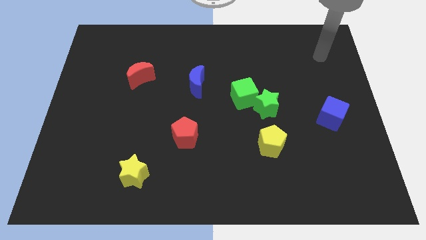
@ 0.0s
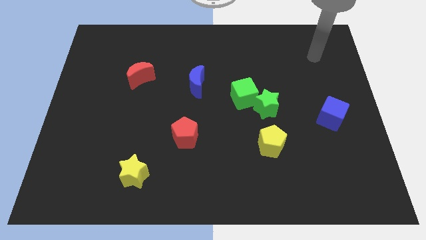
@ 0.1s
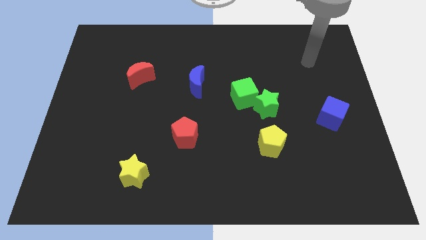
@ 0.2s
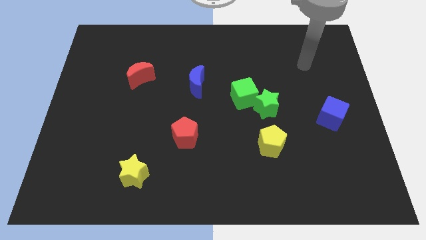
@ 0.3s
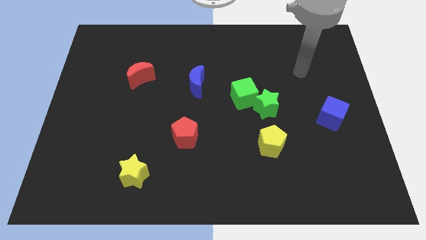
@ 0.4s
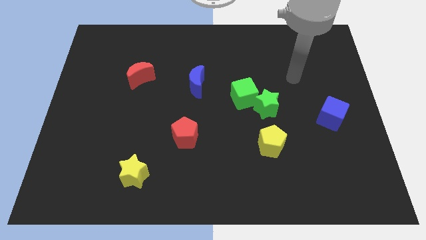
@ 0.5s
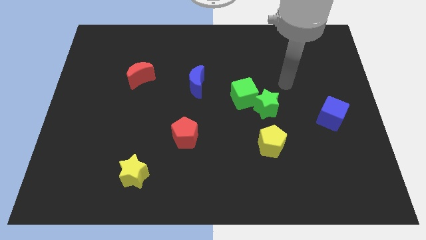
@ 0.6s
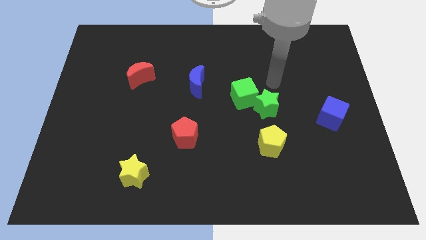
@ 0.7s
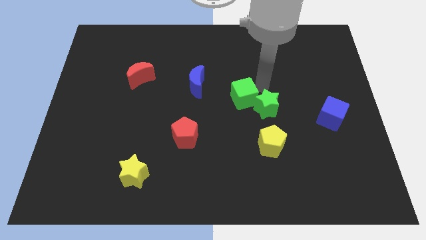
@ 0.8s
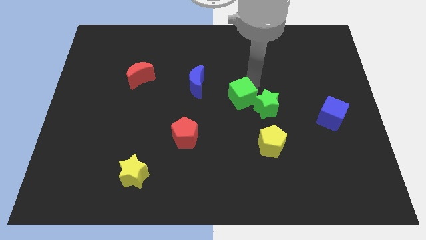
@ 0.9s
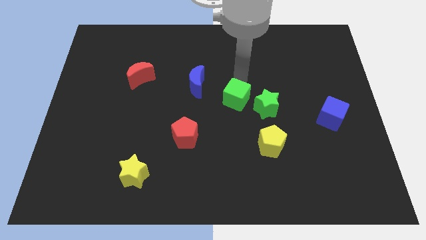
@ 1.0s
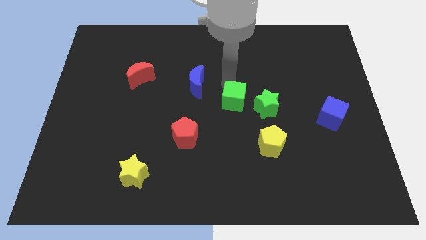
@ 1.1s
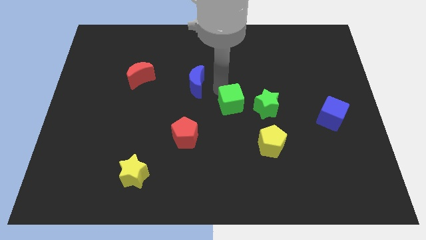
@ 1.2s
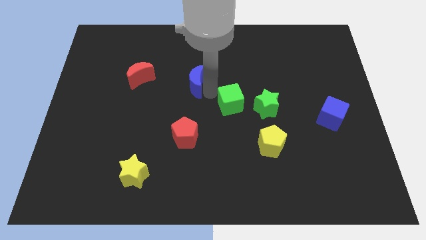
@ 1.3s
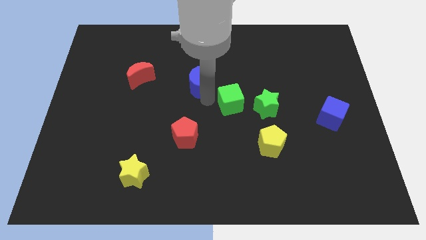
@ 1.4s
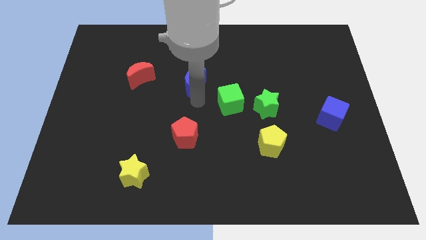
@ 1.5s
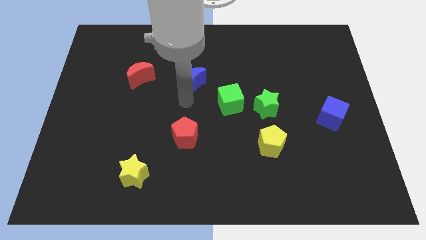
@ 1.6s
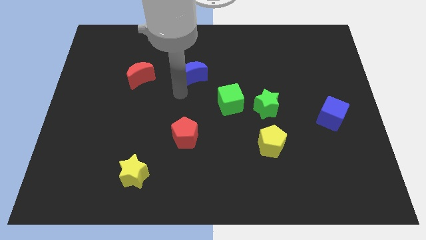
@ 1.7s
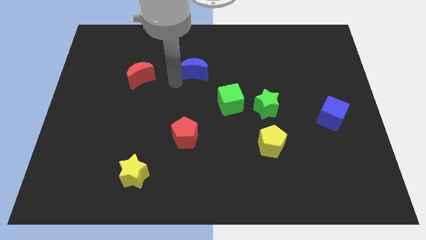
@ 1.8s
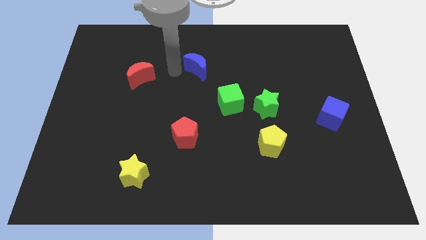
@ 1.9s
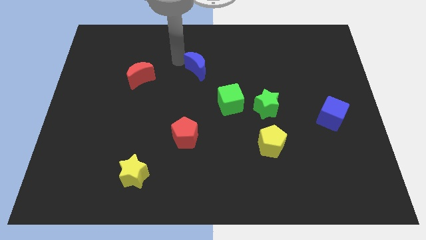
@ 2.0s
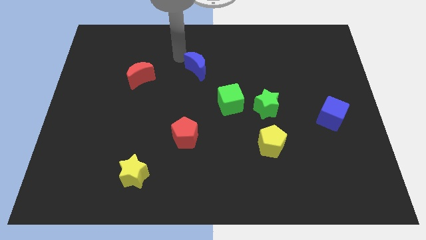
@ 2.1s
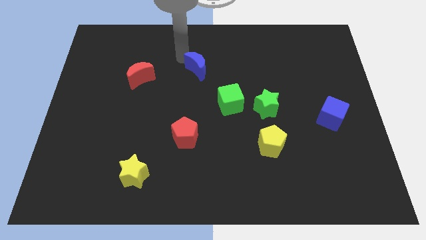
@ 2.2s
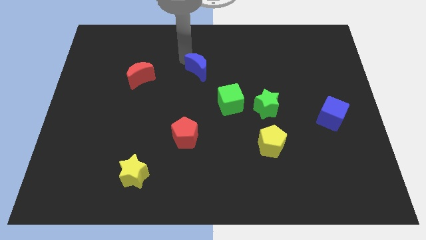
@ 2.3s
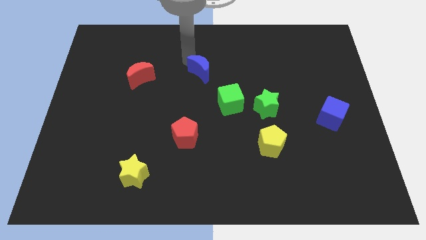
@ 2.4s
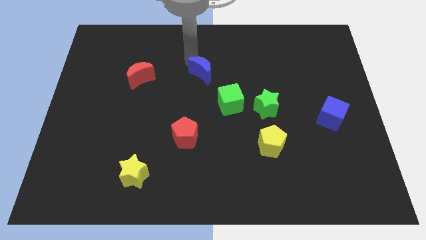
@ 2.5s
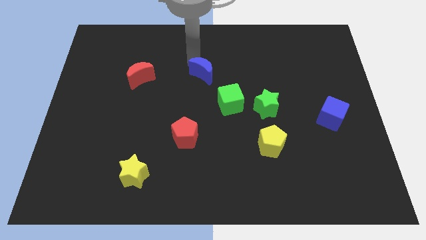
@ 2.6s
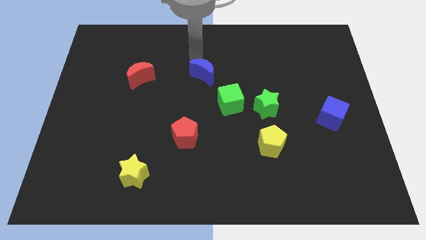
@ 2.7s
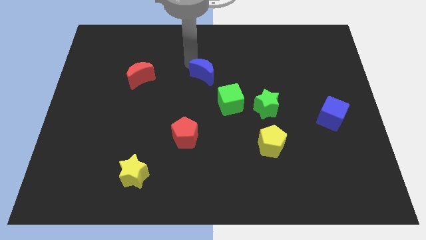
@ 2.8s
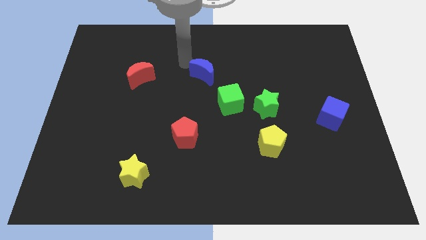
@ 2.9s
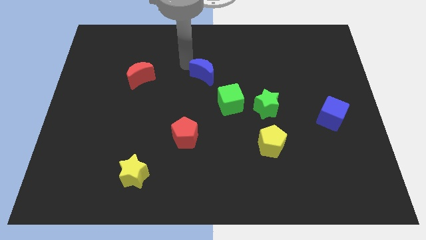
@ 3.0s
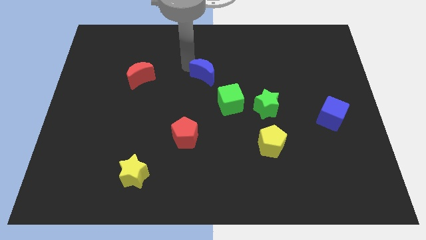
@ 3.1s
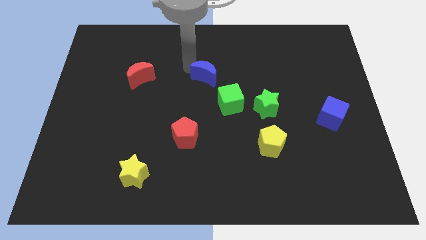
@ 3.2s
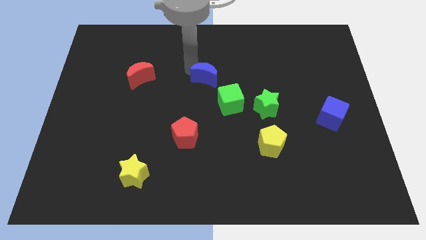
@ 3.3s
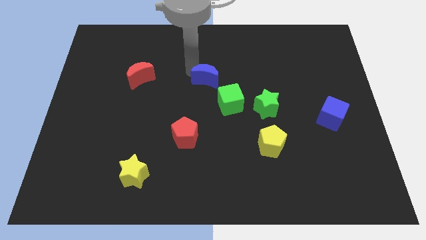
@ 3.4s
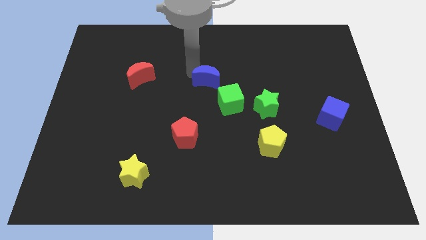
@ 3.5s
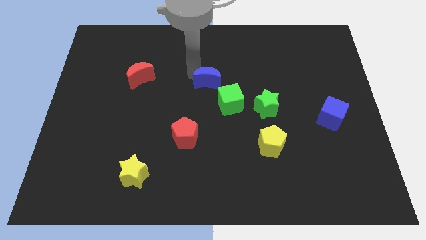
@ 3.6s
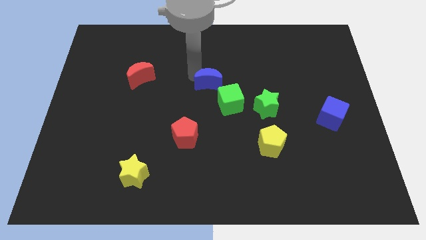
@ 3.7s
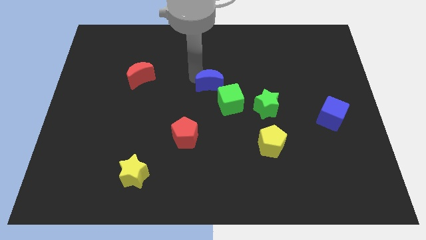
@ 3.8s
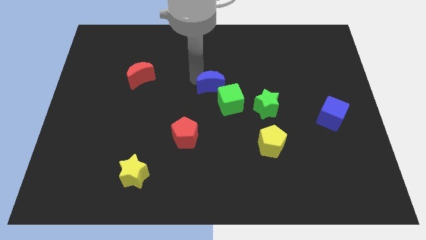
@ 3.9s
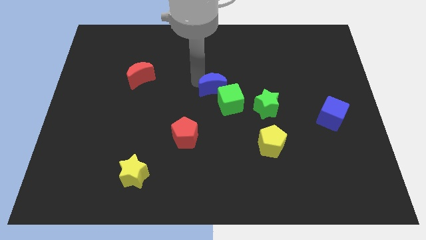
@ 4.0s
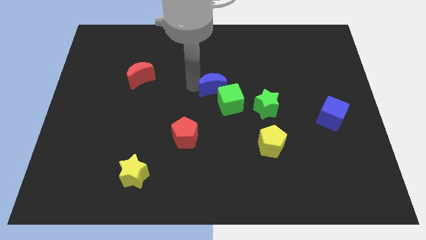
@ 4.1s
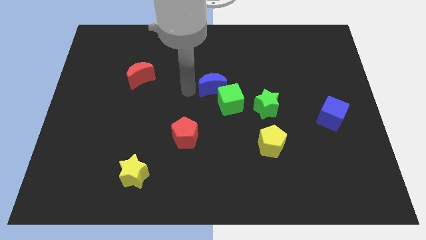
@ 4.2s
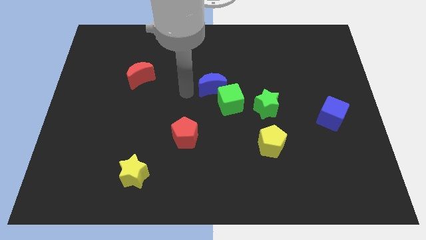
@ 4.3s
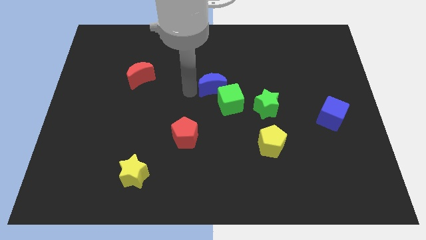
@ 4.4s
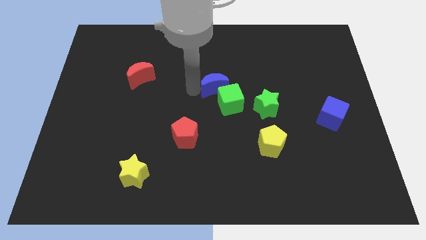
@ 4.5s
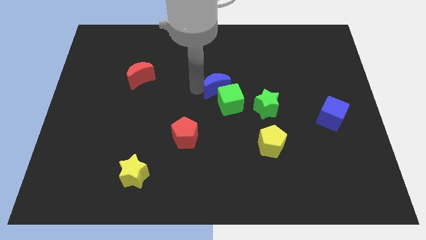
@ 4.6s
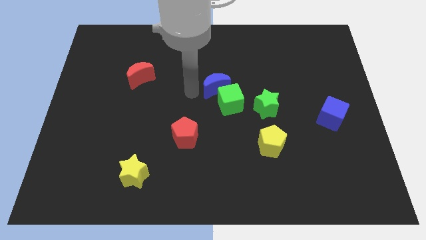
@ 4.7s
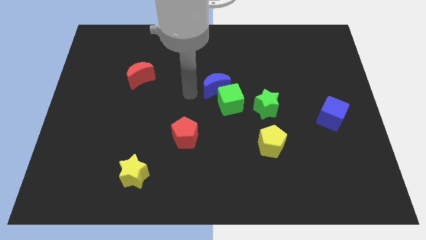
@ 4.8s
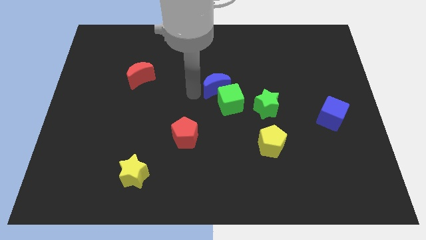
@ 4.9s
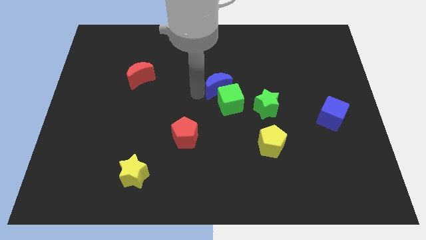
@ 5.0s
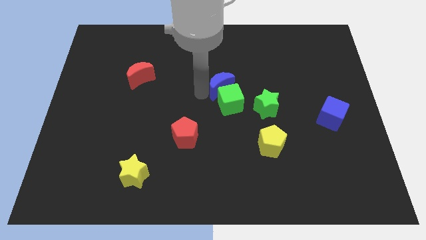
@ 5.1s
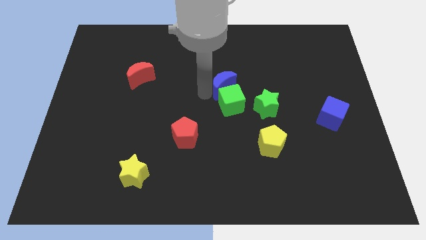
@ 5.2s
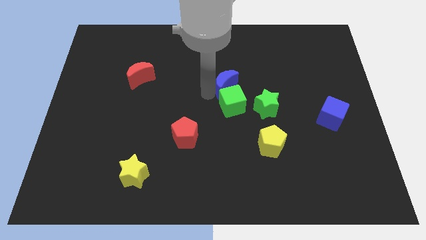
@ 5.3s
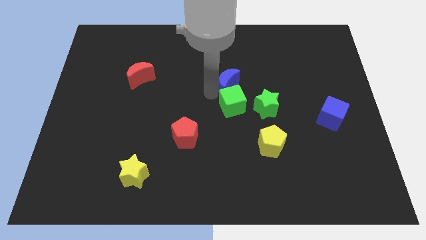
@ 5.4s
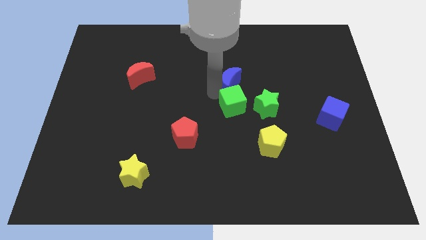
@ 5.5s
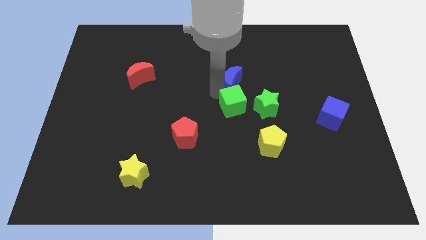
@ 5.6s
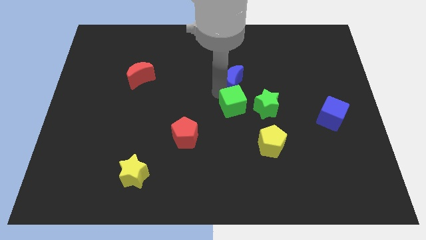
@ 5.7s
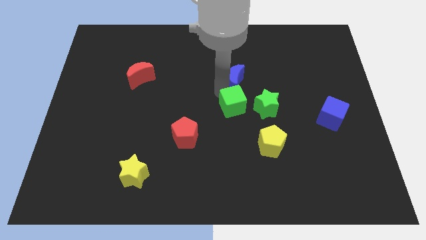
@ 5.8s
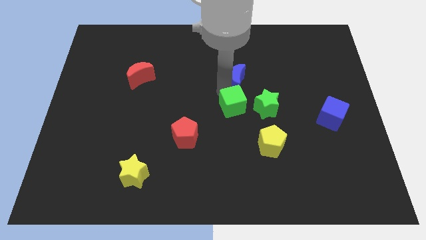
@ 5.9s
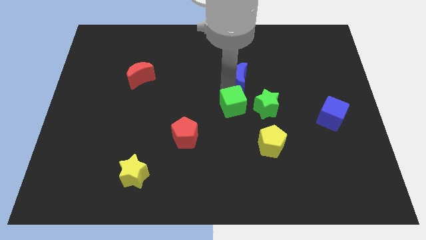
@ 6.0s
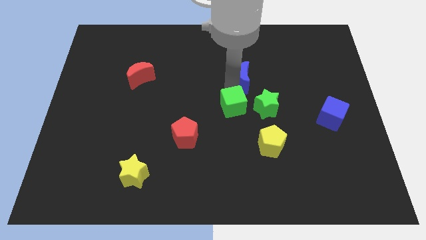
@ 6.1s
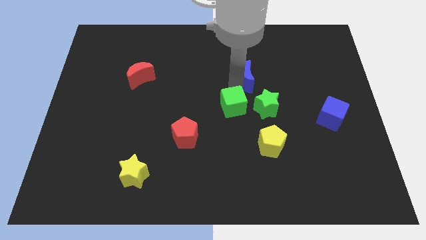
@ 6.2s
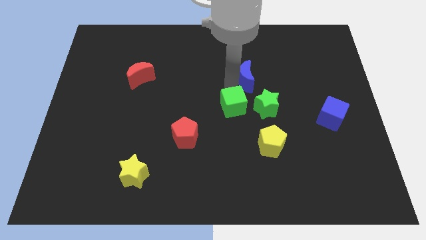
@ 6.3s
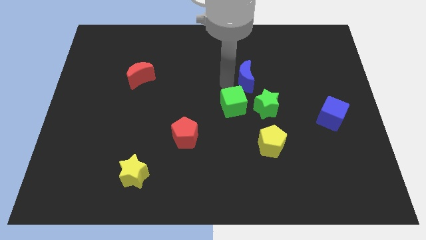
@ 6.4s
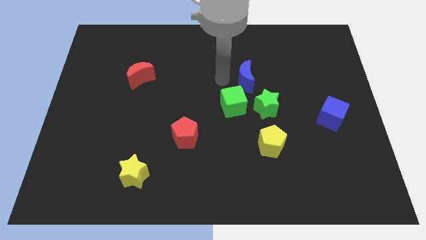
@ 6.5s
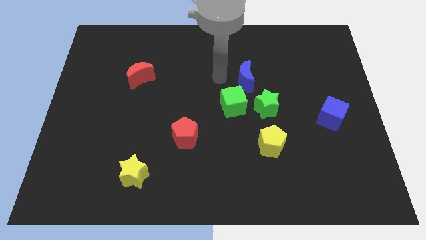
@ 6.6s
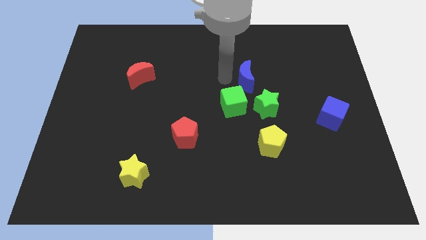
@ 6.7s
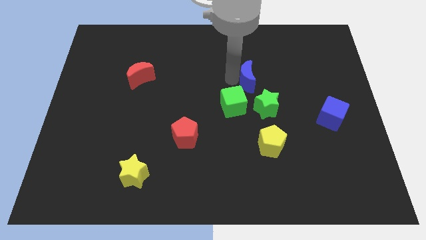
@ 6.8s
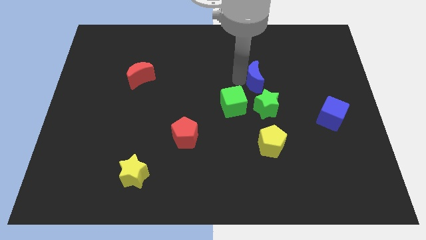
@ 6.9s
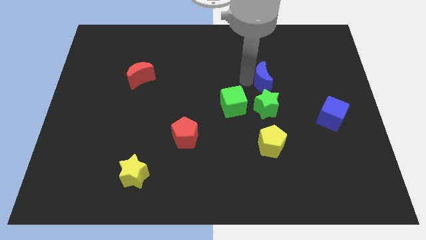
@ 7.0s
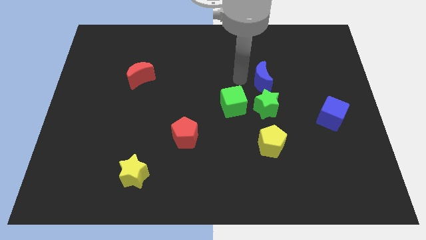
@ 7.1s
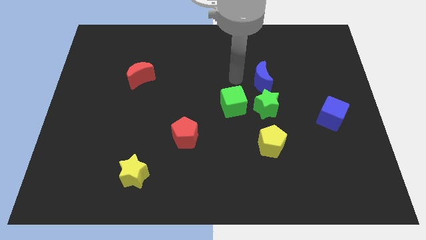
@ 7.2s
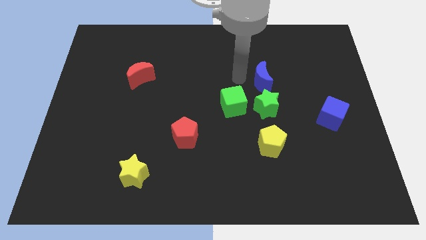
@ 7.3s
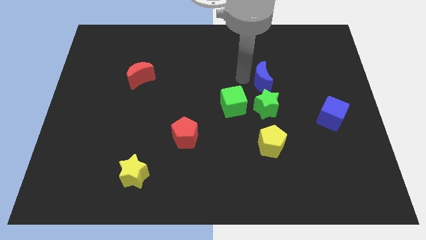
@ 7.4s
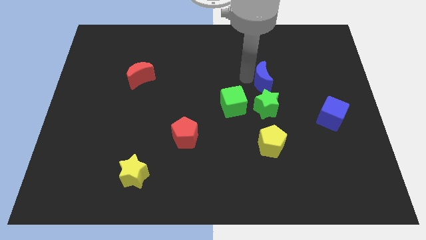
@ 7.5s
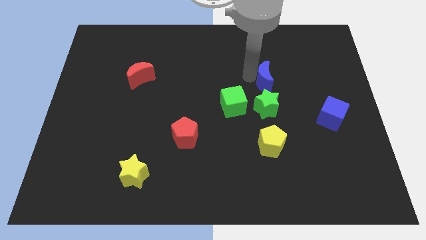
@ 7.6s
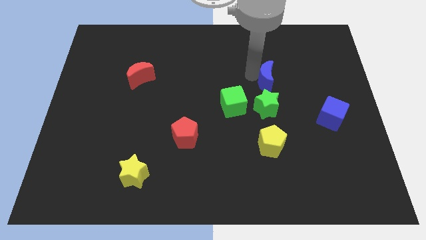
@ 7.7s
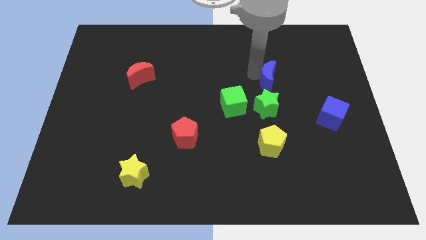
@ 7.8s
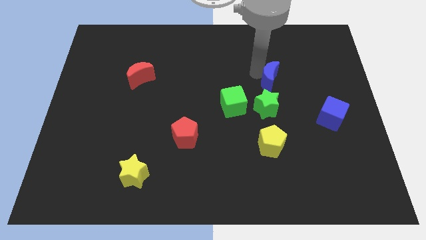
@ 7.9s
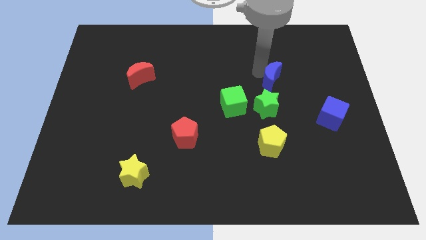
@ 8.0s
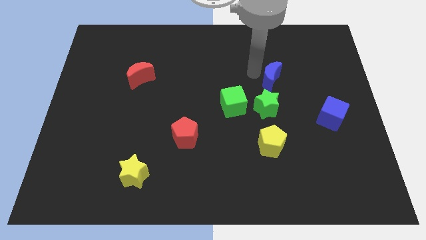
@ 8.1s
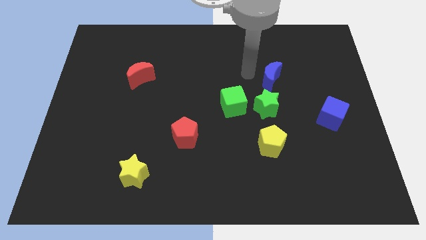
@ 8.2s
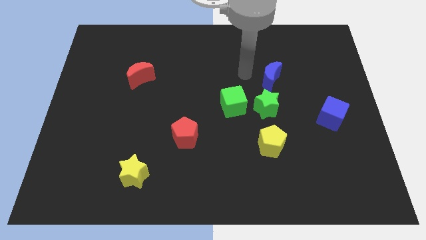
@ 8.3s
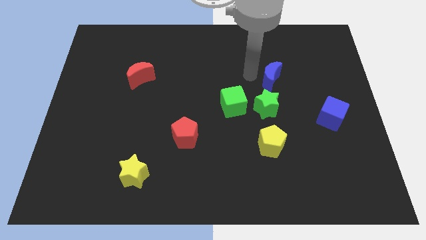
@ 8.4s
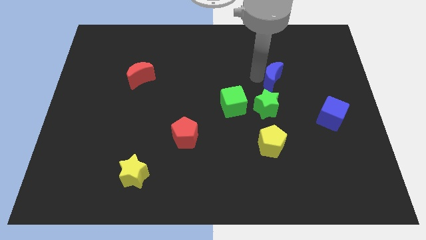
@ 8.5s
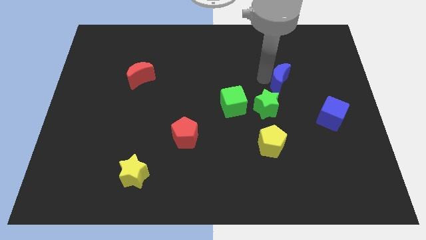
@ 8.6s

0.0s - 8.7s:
push the blue moon right
